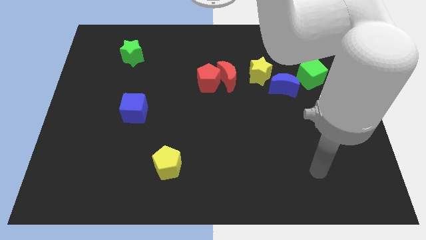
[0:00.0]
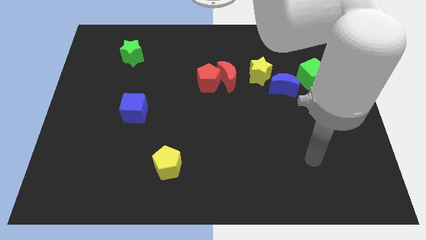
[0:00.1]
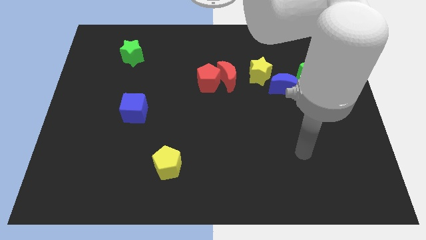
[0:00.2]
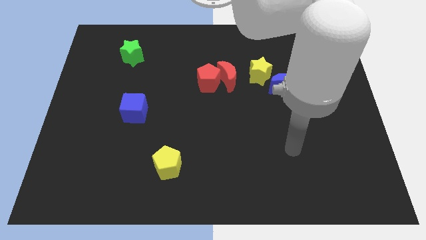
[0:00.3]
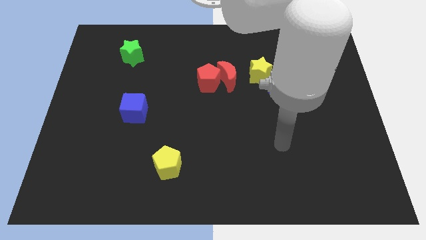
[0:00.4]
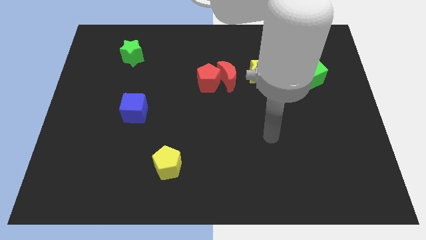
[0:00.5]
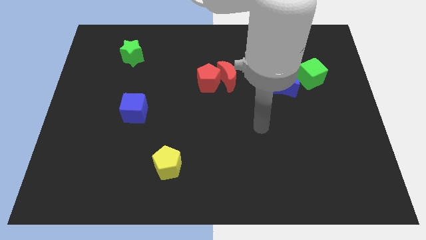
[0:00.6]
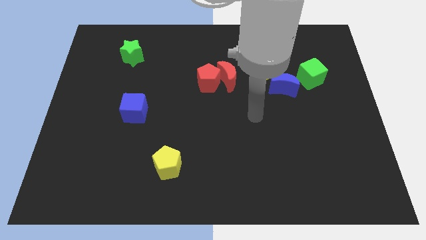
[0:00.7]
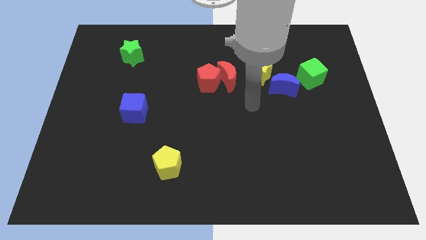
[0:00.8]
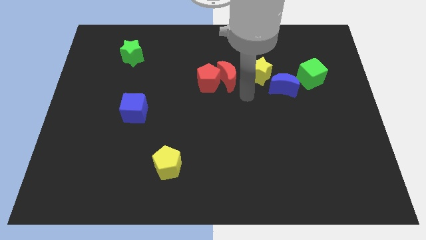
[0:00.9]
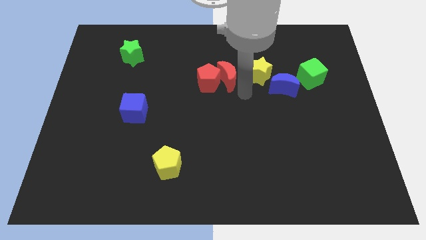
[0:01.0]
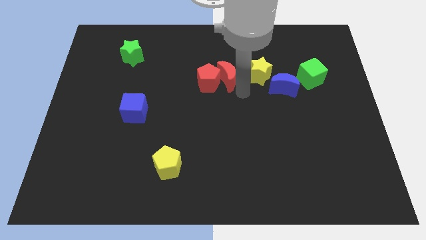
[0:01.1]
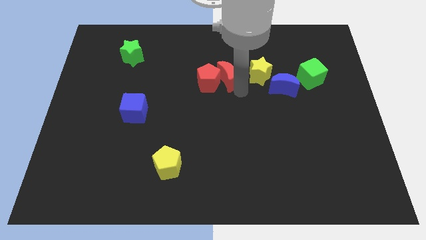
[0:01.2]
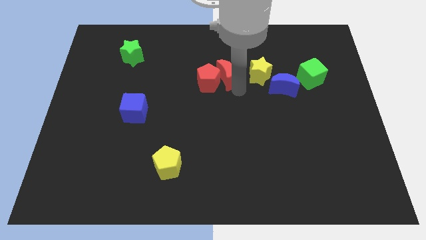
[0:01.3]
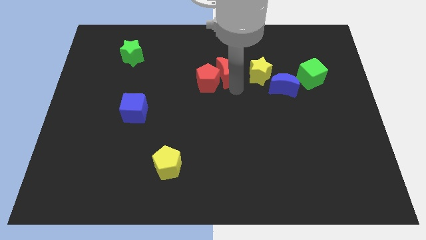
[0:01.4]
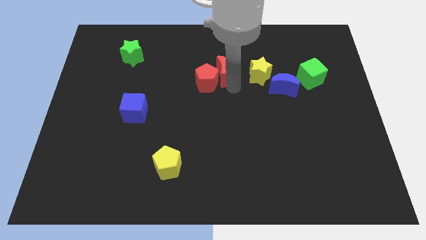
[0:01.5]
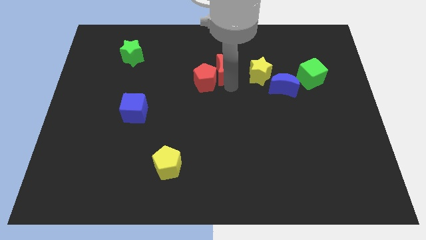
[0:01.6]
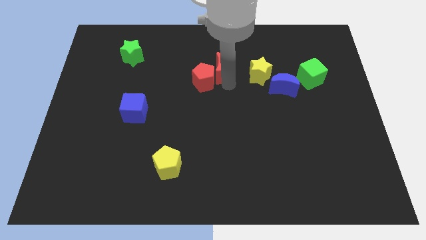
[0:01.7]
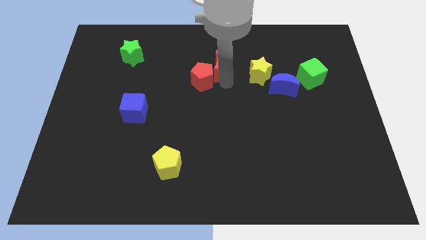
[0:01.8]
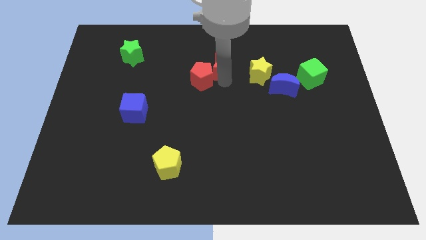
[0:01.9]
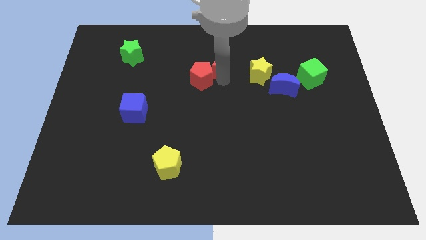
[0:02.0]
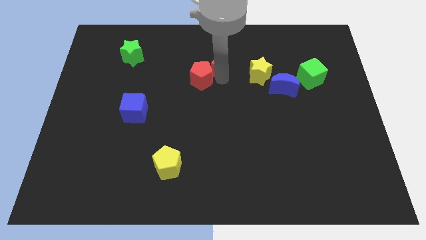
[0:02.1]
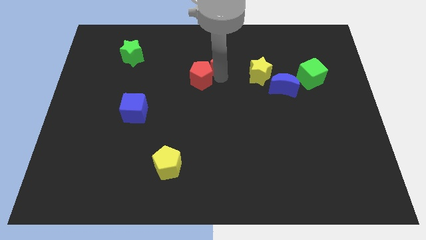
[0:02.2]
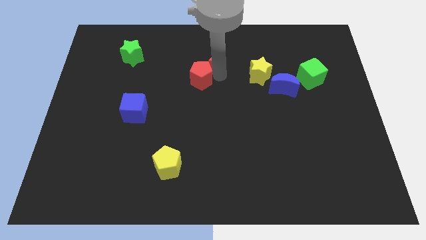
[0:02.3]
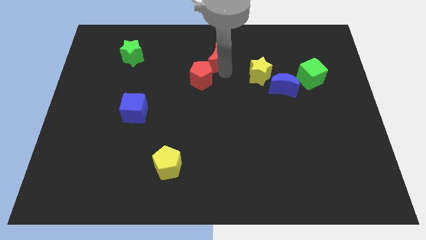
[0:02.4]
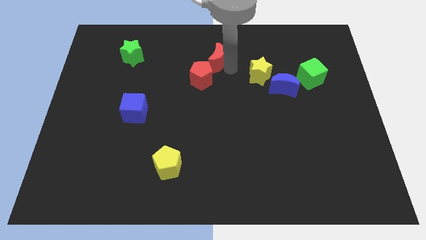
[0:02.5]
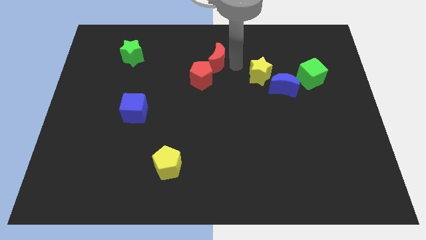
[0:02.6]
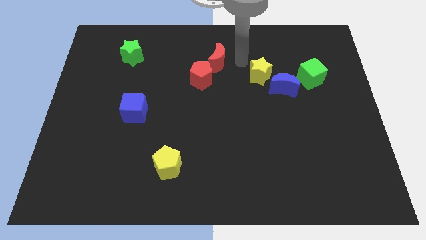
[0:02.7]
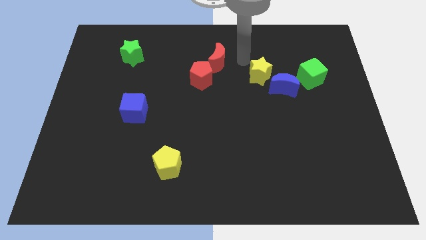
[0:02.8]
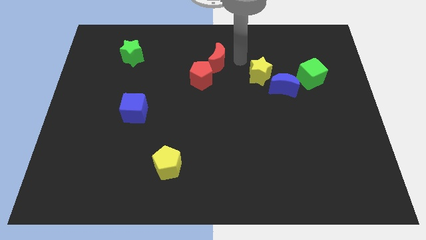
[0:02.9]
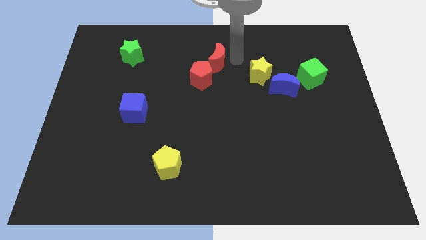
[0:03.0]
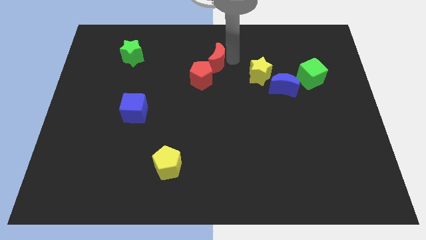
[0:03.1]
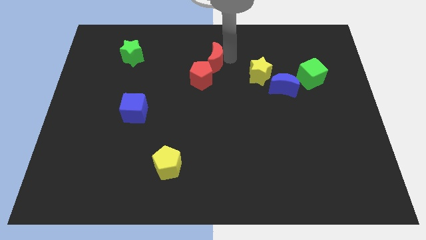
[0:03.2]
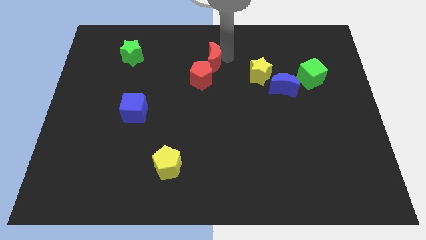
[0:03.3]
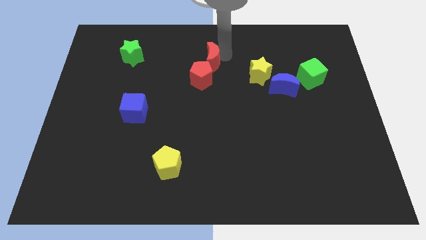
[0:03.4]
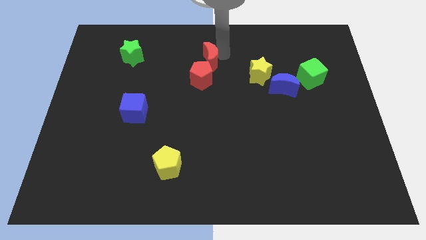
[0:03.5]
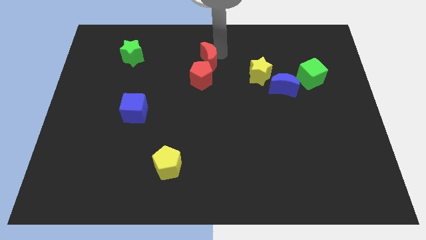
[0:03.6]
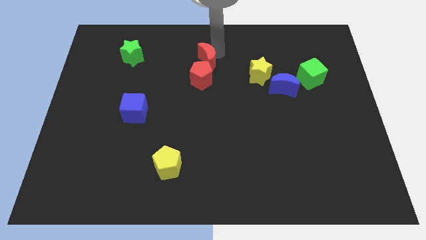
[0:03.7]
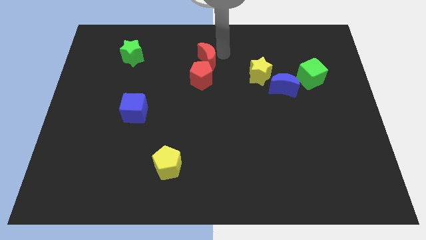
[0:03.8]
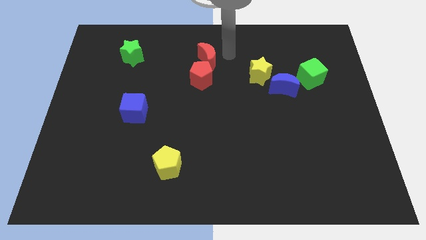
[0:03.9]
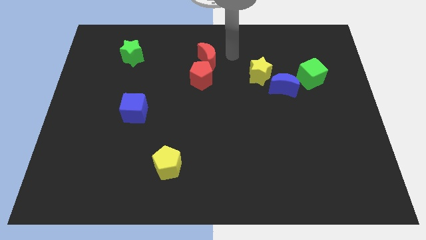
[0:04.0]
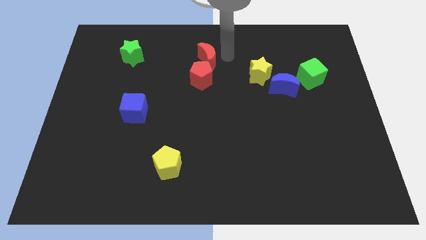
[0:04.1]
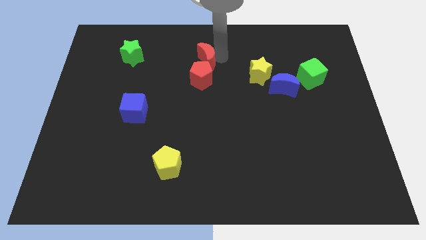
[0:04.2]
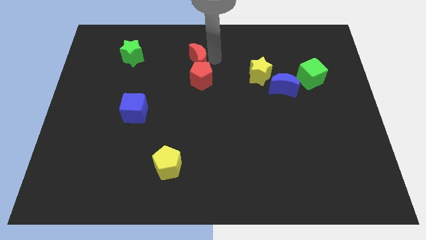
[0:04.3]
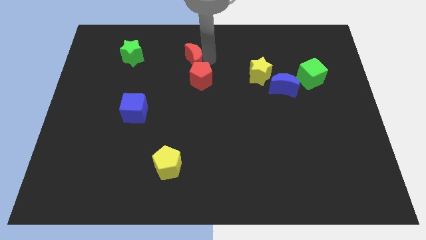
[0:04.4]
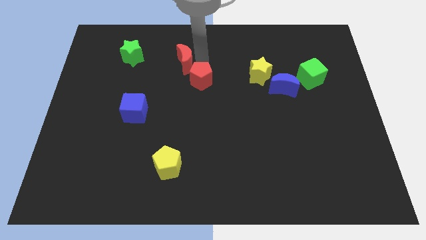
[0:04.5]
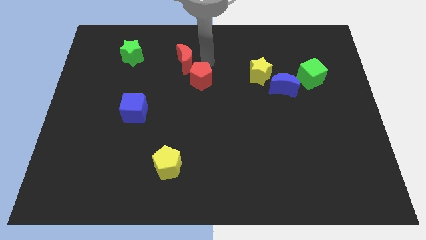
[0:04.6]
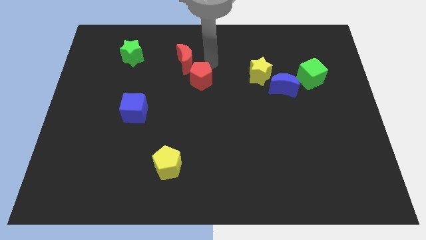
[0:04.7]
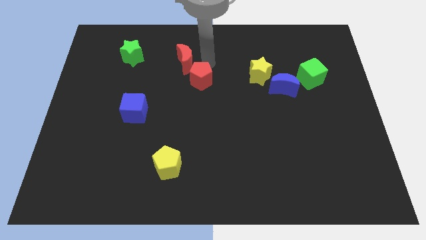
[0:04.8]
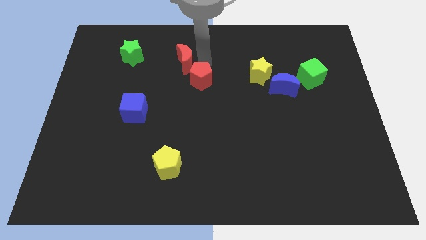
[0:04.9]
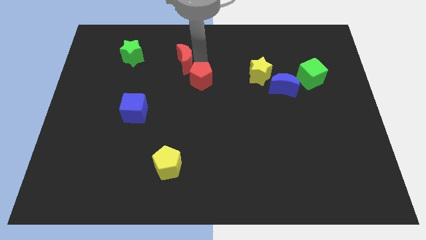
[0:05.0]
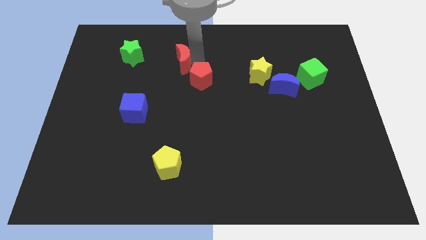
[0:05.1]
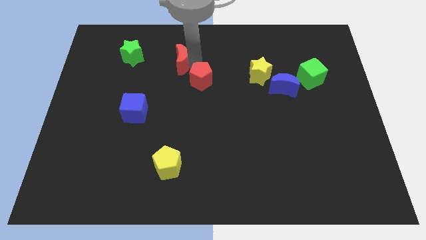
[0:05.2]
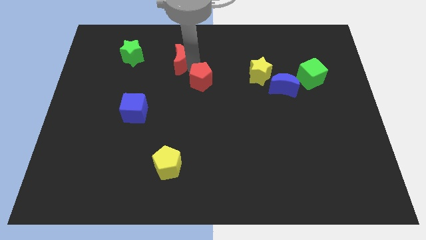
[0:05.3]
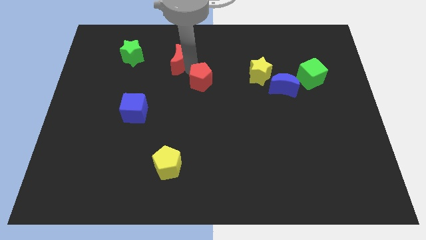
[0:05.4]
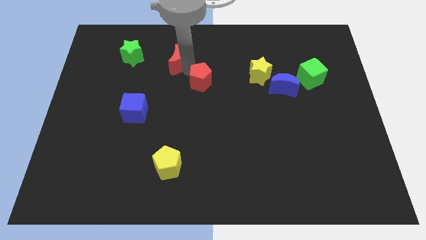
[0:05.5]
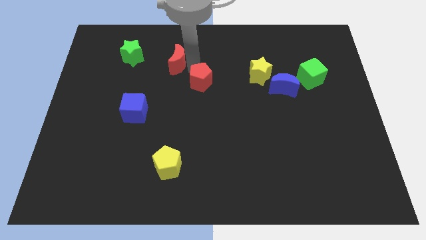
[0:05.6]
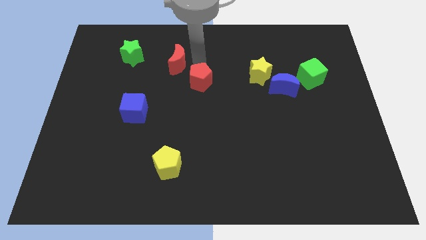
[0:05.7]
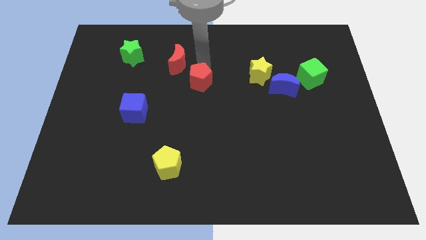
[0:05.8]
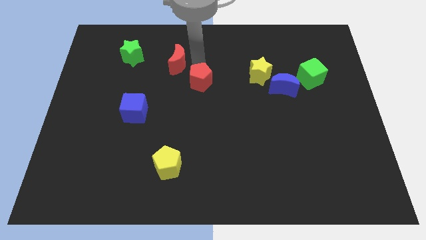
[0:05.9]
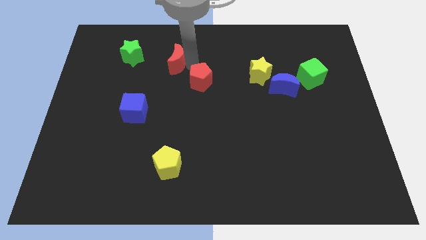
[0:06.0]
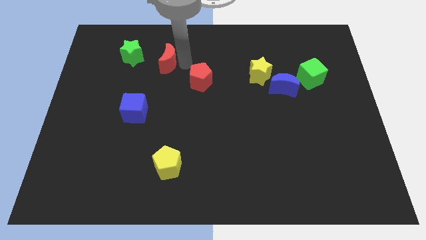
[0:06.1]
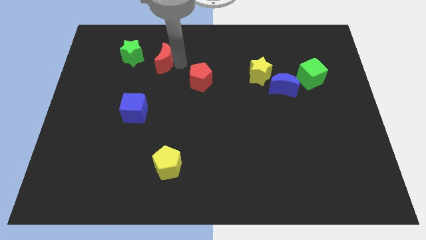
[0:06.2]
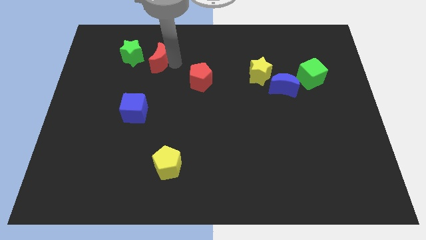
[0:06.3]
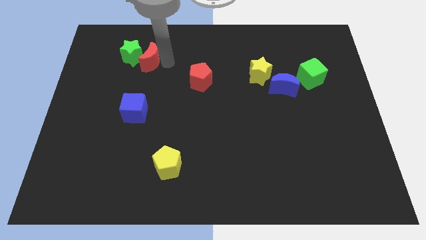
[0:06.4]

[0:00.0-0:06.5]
move the red moon next to the green star
